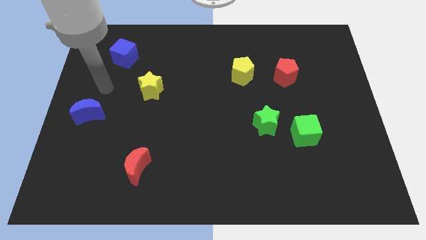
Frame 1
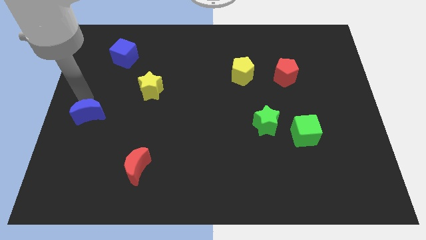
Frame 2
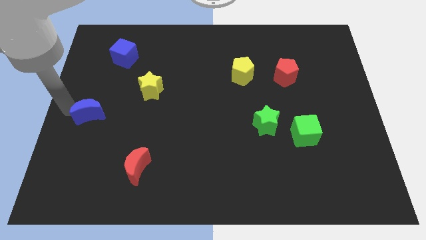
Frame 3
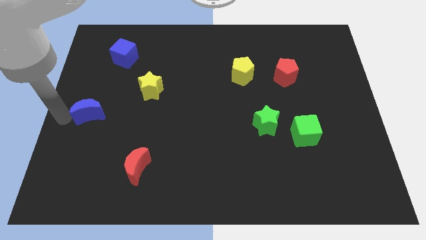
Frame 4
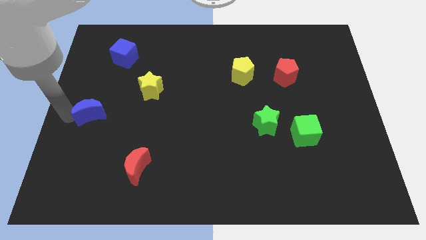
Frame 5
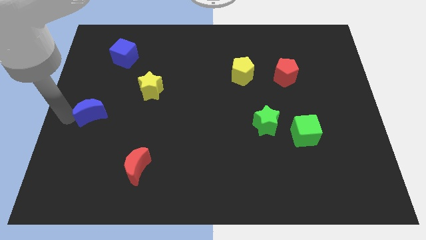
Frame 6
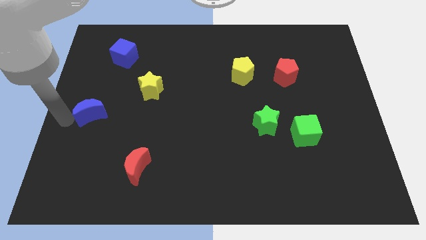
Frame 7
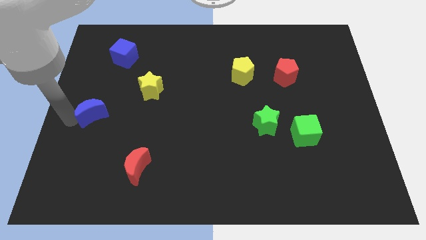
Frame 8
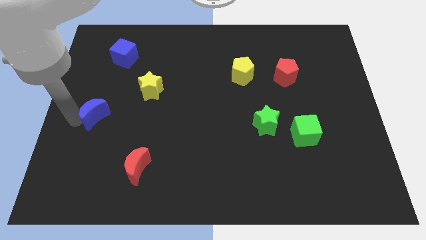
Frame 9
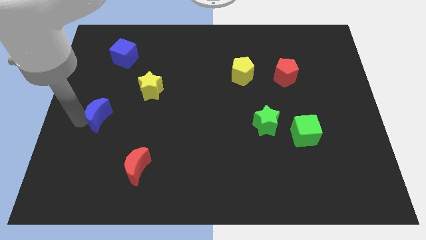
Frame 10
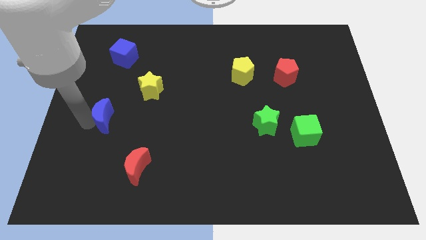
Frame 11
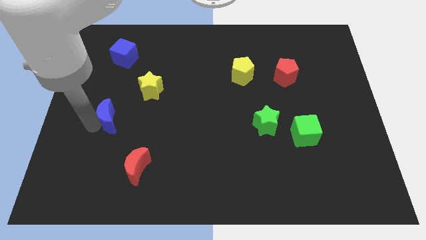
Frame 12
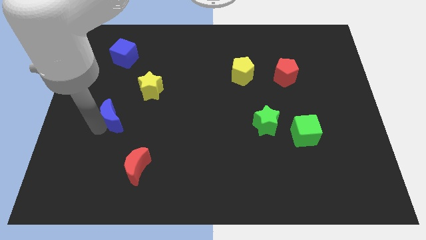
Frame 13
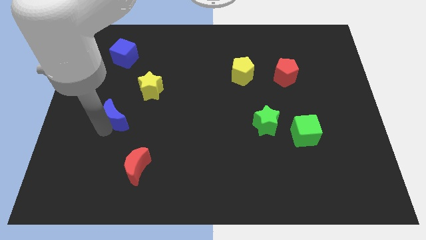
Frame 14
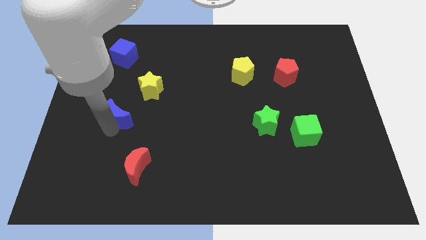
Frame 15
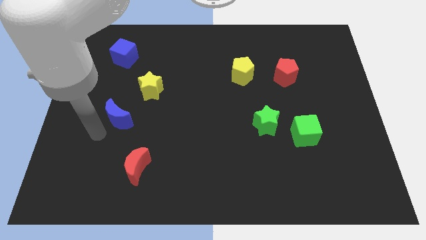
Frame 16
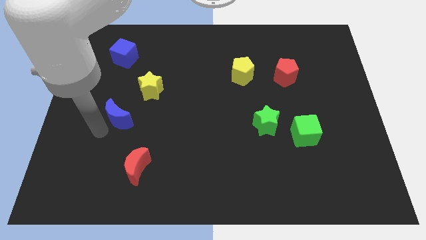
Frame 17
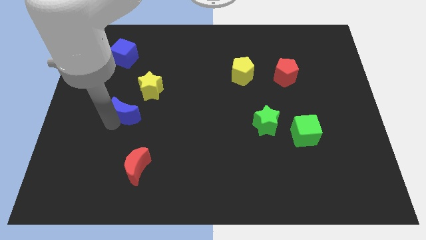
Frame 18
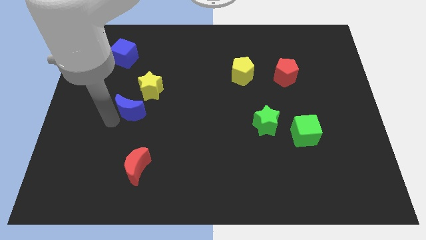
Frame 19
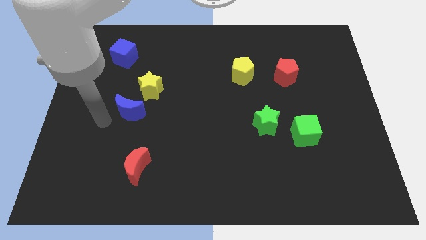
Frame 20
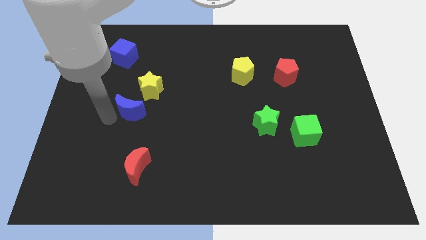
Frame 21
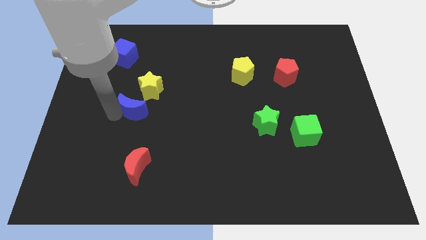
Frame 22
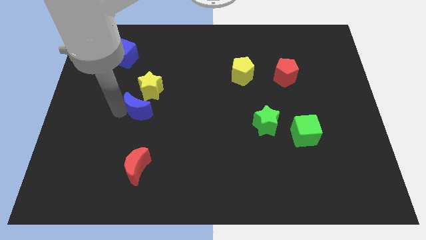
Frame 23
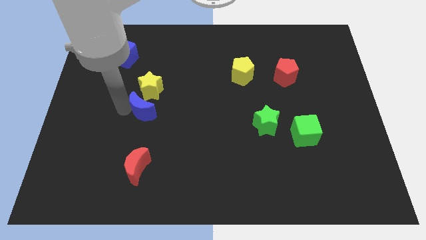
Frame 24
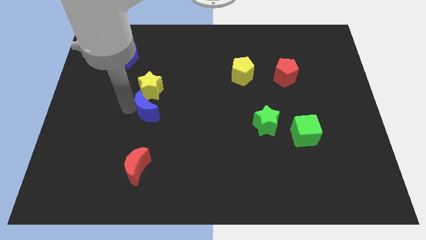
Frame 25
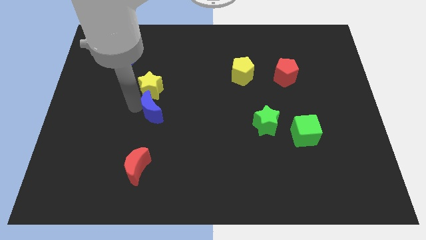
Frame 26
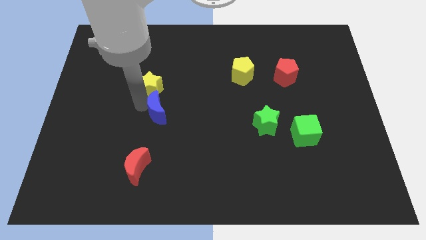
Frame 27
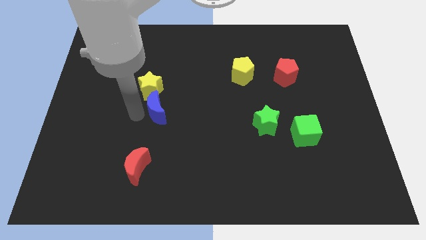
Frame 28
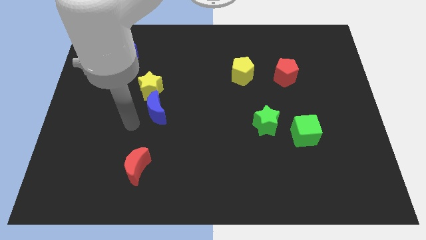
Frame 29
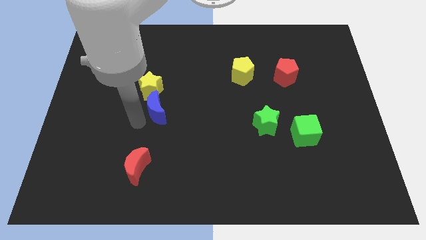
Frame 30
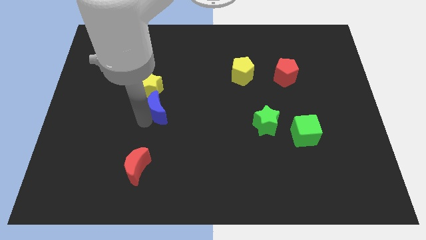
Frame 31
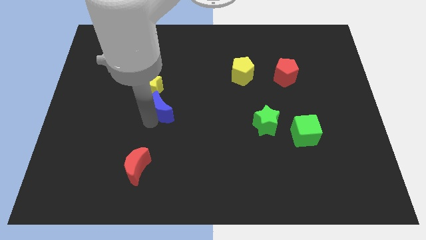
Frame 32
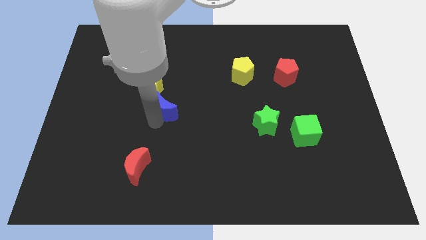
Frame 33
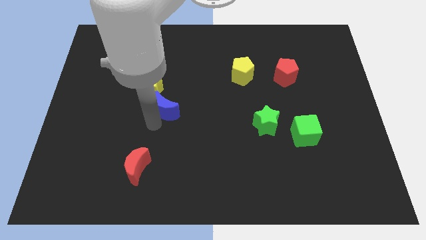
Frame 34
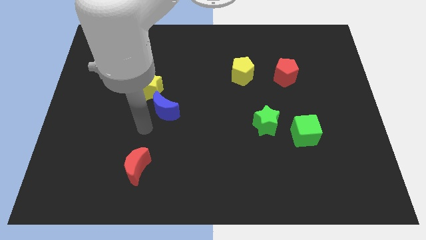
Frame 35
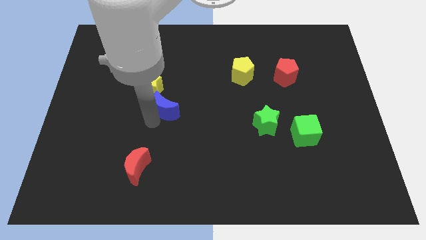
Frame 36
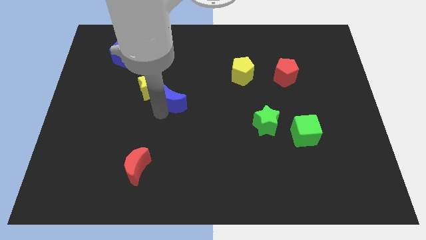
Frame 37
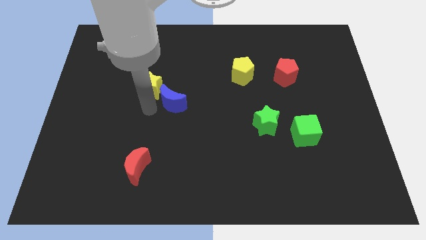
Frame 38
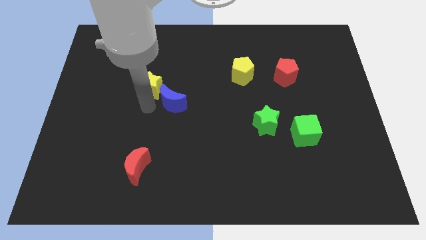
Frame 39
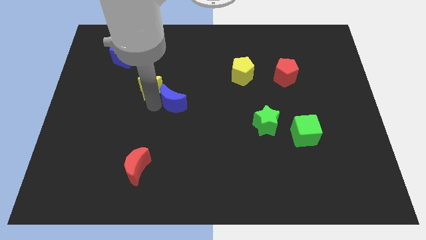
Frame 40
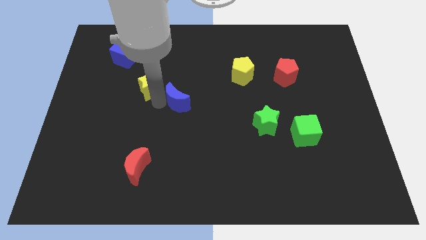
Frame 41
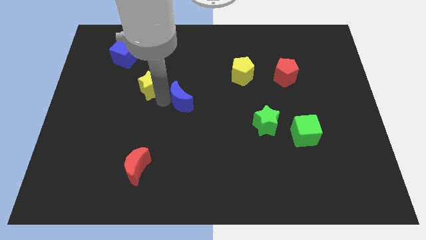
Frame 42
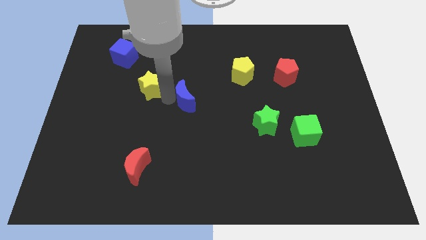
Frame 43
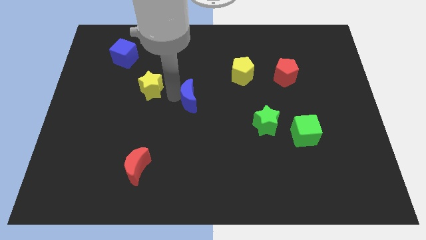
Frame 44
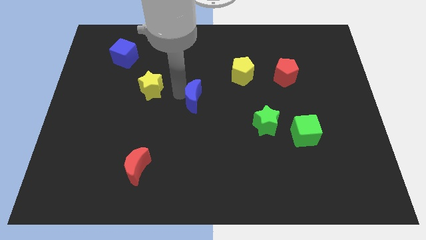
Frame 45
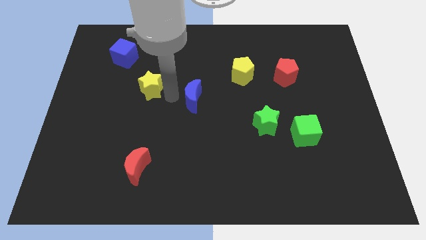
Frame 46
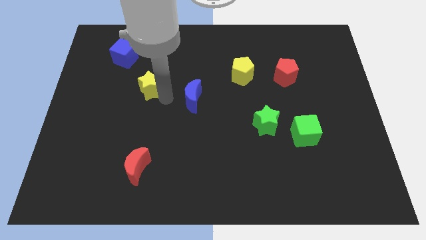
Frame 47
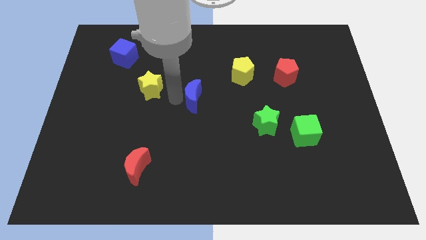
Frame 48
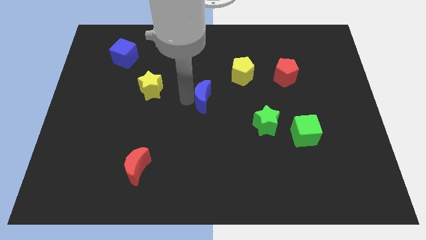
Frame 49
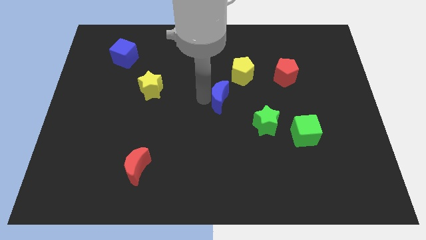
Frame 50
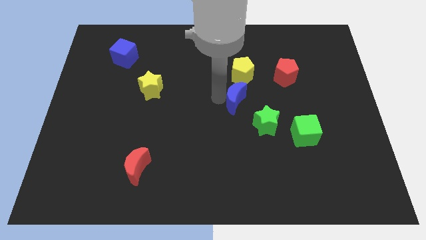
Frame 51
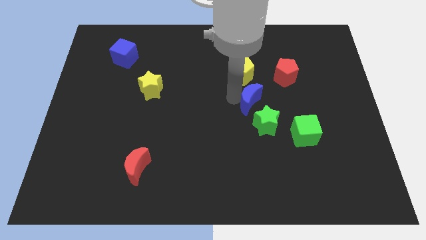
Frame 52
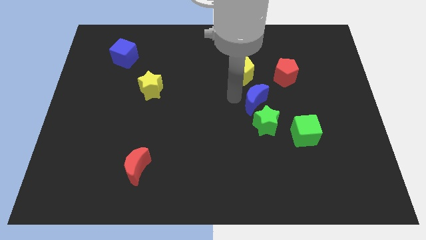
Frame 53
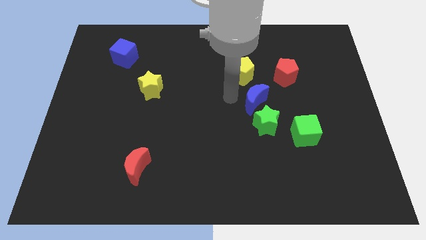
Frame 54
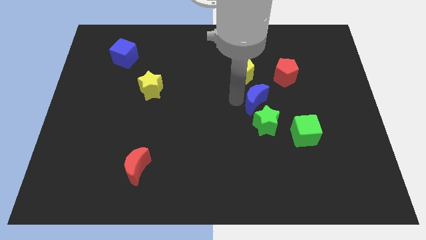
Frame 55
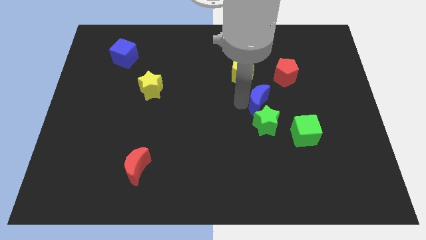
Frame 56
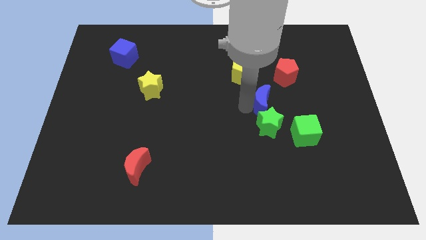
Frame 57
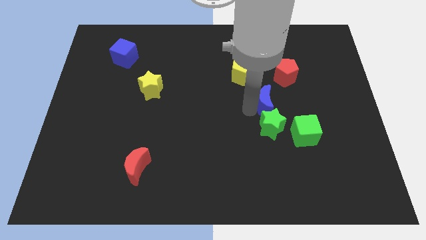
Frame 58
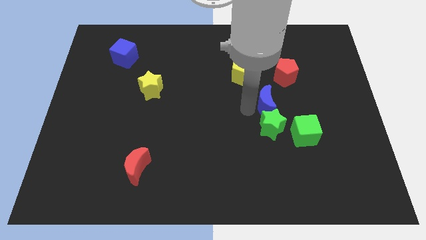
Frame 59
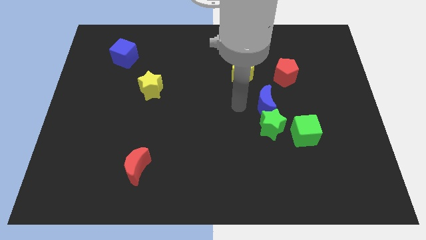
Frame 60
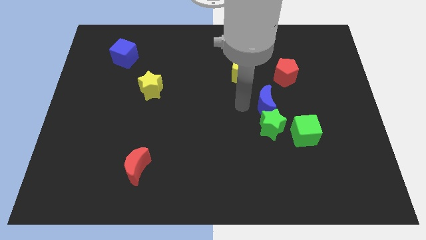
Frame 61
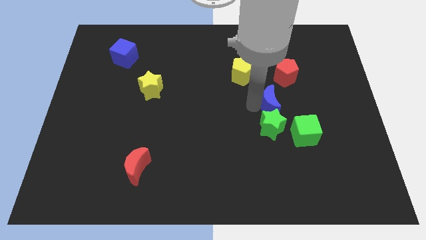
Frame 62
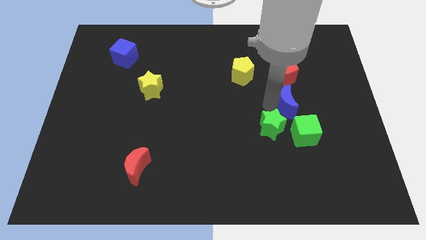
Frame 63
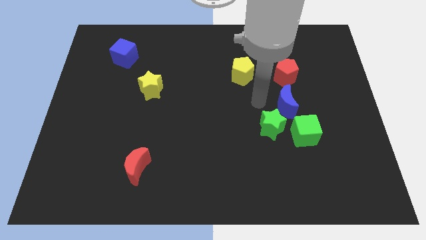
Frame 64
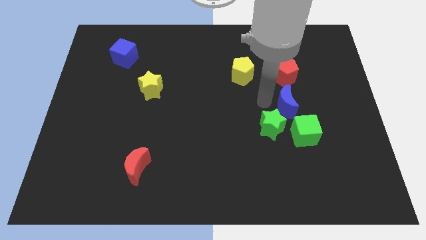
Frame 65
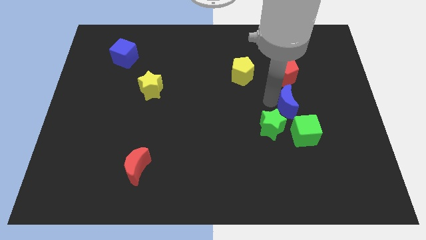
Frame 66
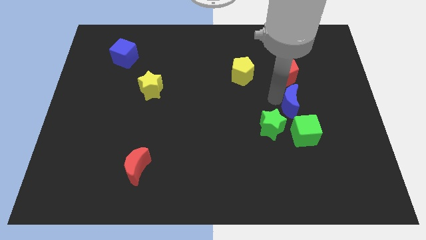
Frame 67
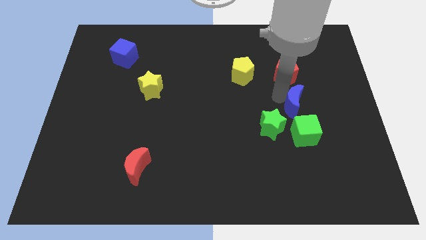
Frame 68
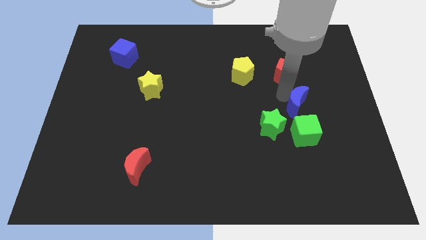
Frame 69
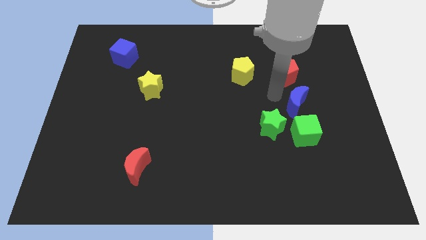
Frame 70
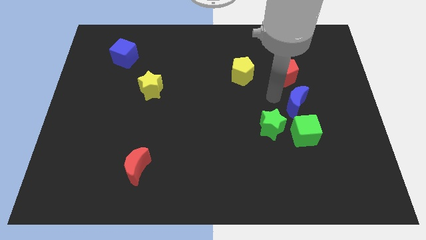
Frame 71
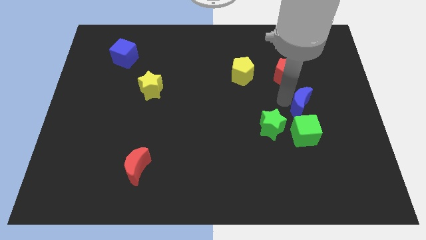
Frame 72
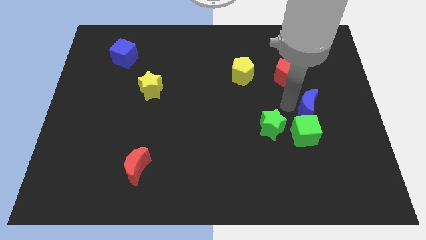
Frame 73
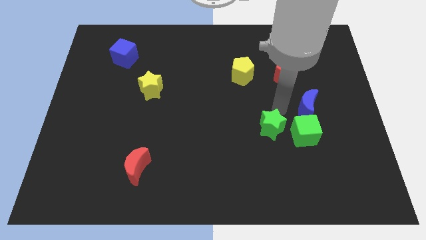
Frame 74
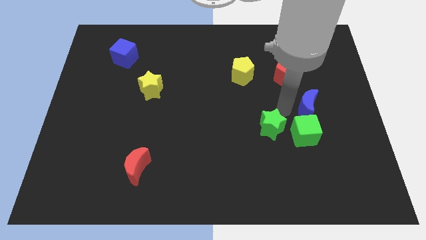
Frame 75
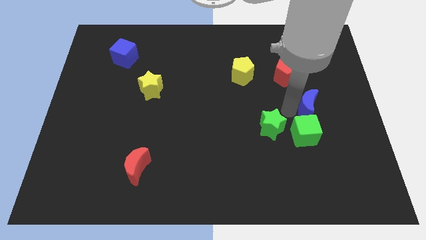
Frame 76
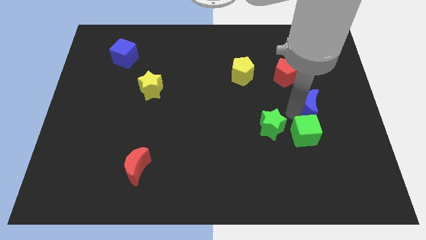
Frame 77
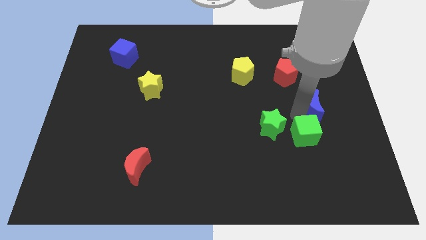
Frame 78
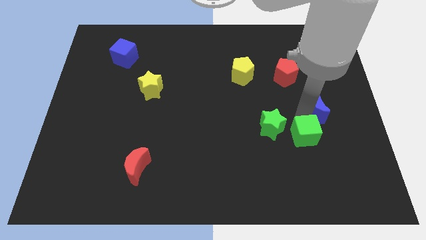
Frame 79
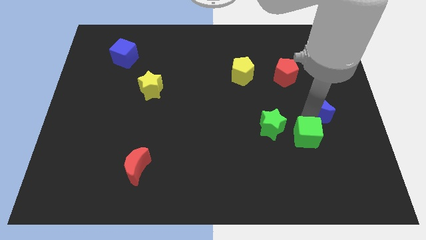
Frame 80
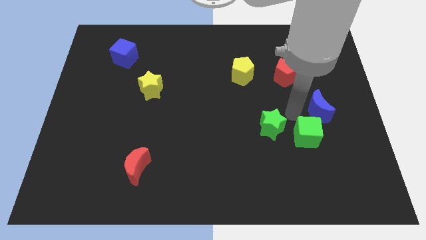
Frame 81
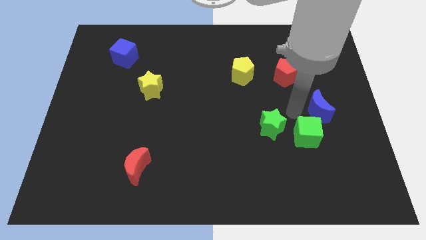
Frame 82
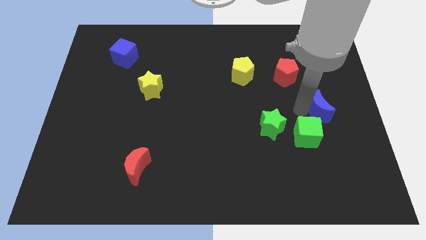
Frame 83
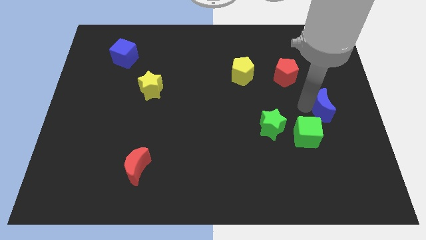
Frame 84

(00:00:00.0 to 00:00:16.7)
slide the blue moon to the right side
